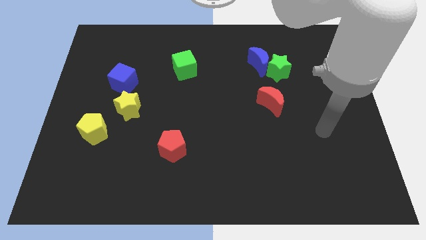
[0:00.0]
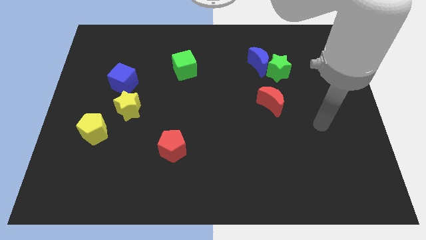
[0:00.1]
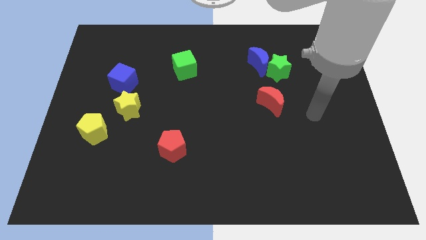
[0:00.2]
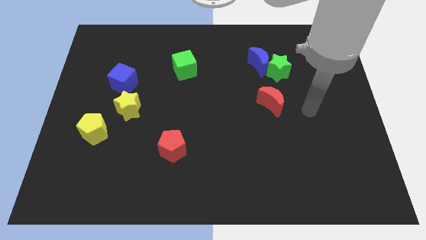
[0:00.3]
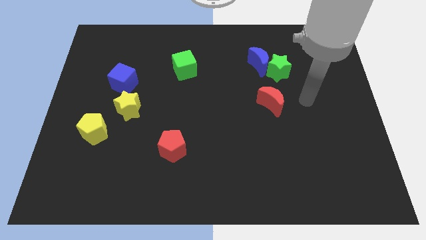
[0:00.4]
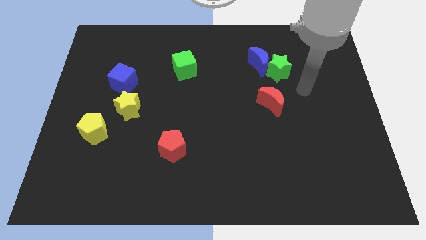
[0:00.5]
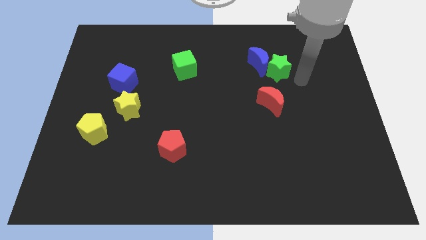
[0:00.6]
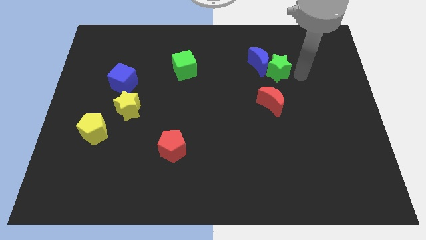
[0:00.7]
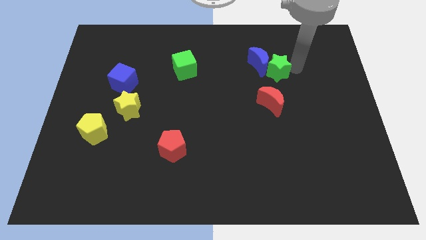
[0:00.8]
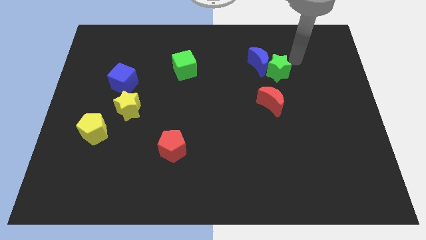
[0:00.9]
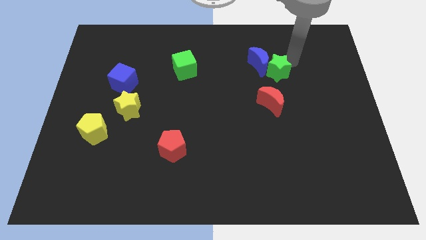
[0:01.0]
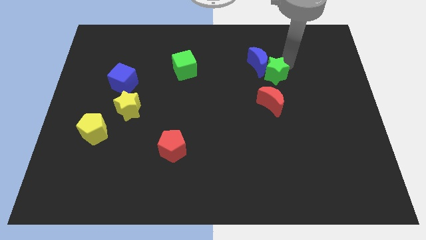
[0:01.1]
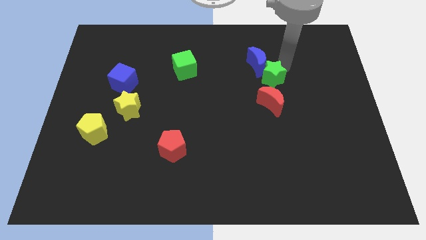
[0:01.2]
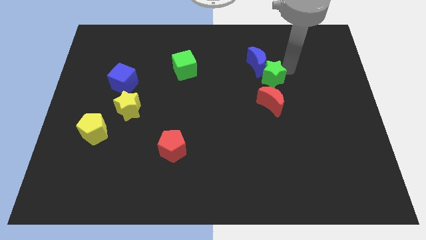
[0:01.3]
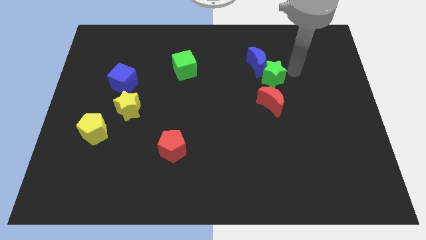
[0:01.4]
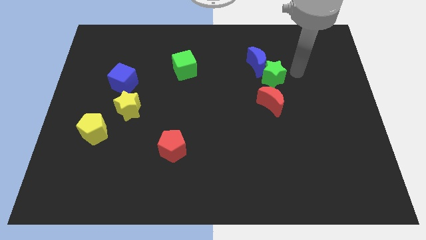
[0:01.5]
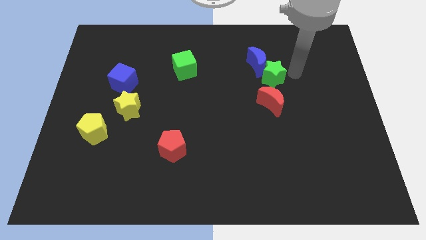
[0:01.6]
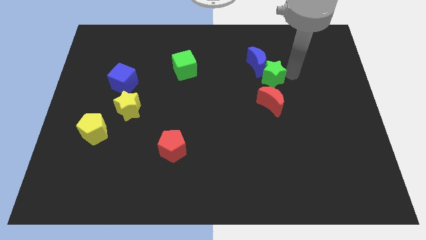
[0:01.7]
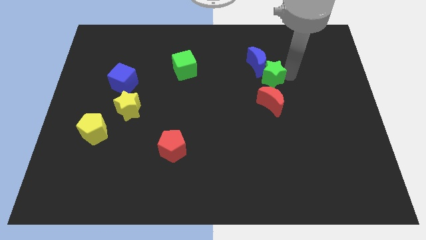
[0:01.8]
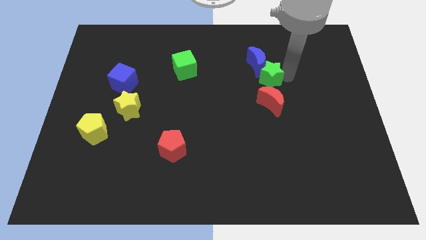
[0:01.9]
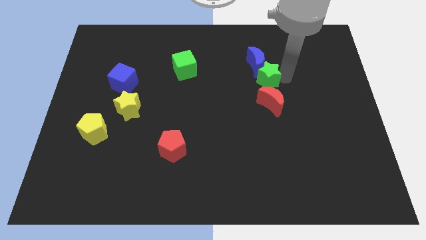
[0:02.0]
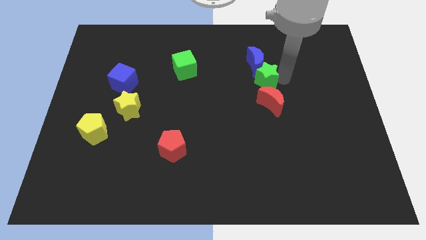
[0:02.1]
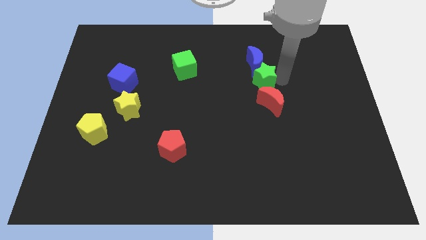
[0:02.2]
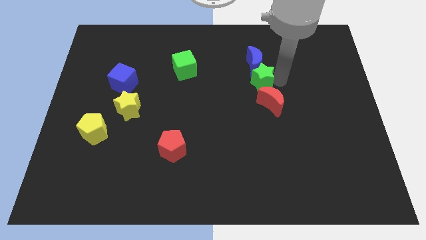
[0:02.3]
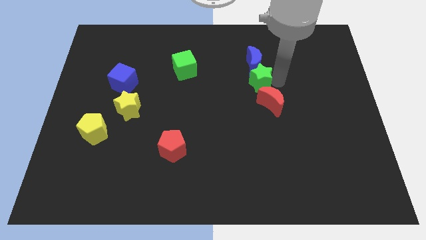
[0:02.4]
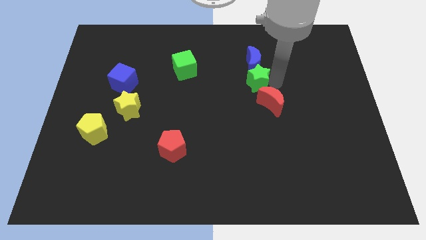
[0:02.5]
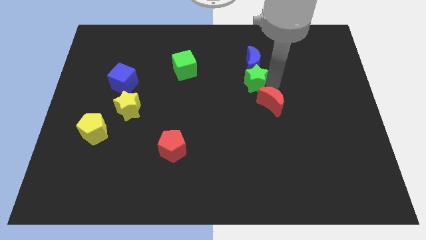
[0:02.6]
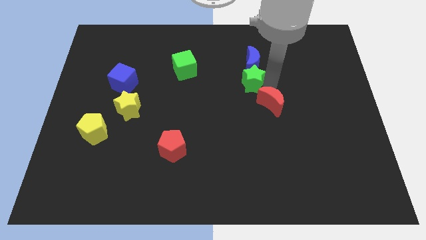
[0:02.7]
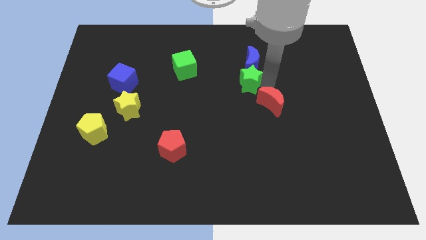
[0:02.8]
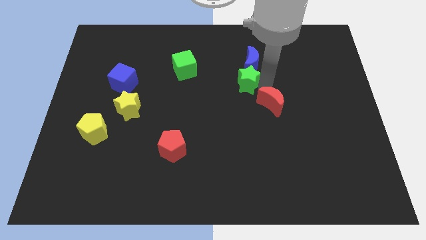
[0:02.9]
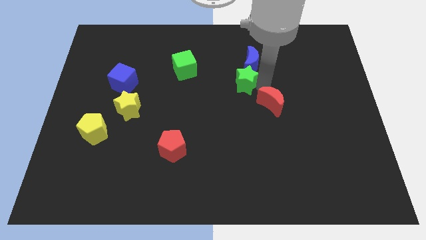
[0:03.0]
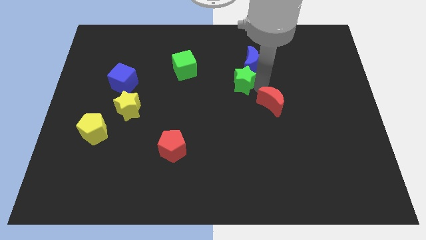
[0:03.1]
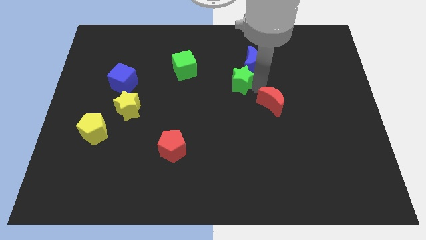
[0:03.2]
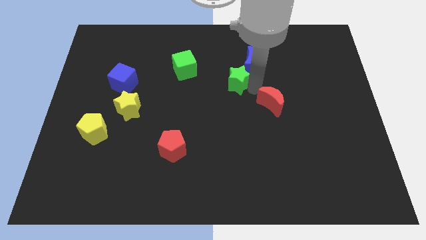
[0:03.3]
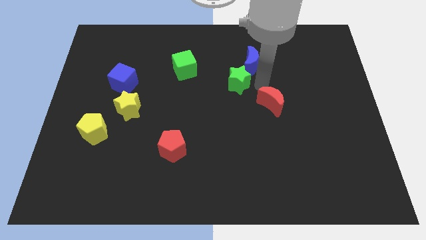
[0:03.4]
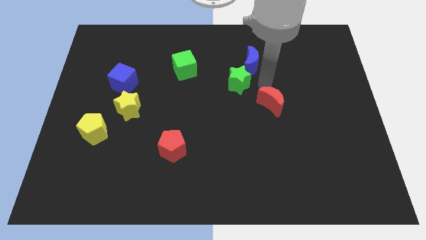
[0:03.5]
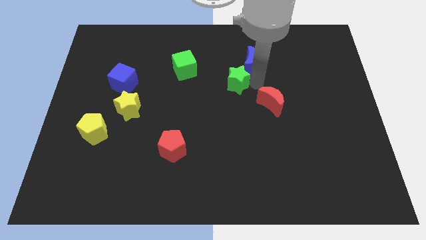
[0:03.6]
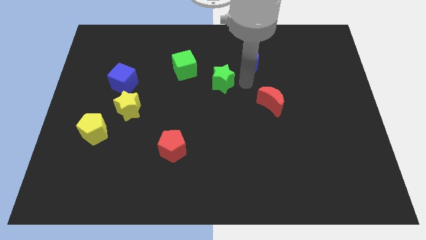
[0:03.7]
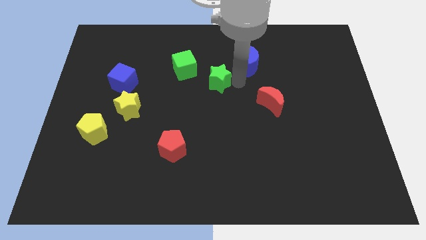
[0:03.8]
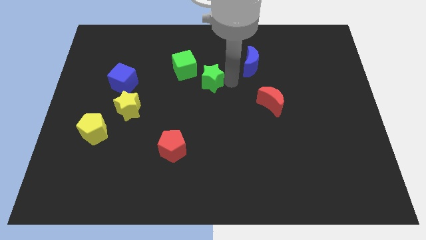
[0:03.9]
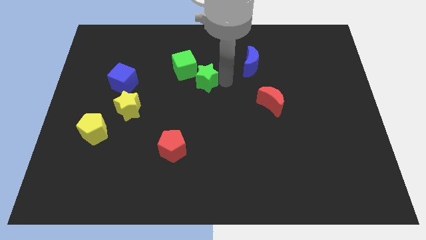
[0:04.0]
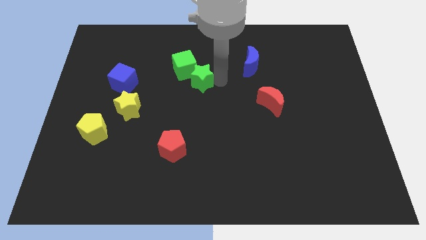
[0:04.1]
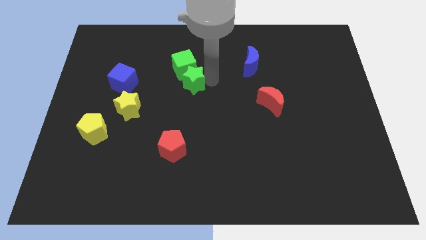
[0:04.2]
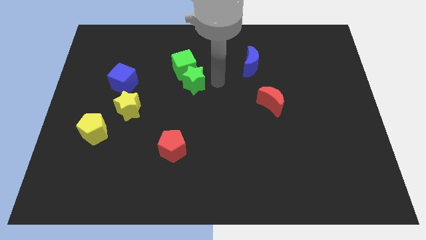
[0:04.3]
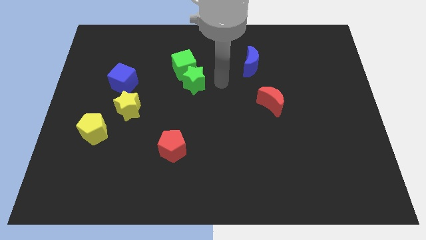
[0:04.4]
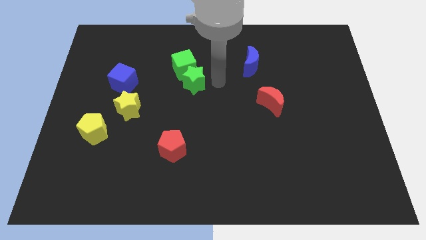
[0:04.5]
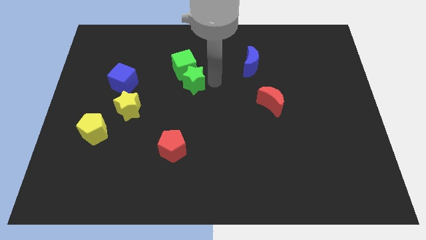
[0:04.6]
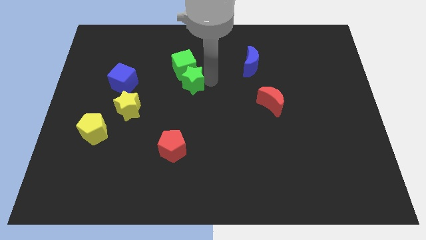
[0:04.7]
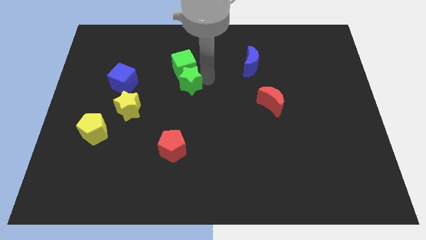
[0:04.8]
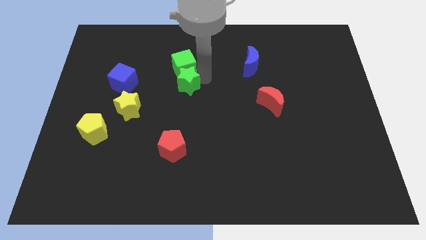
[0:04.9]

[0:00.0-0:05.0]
put the green star diagonally down and to the left of the green cube

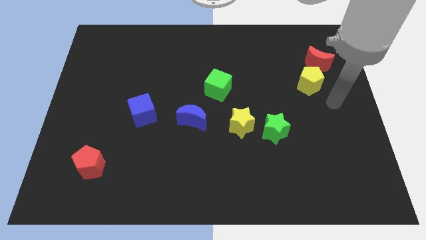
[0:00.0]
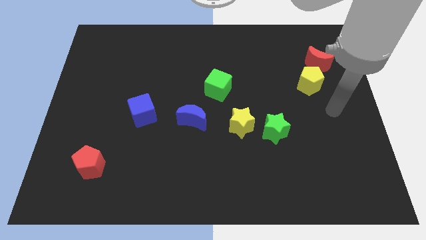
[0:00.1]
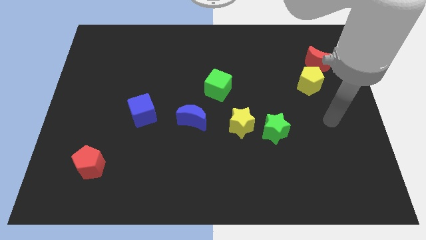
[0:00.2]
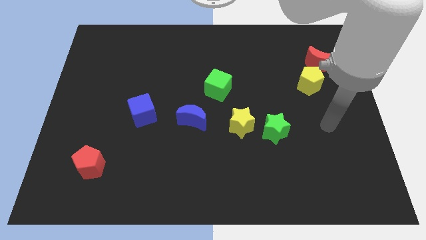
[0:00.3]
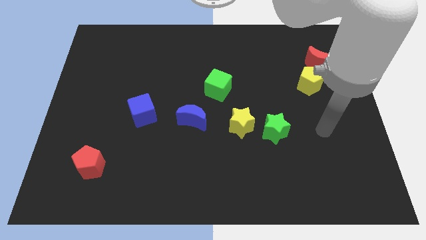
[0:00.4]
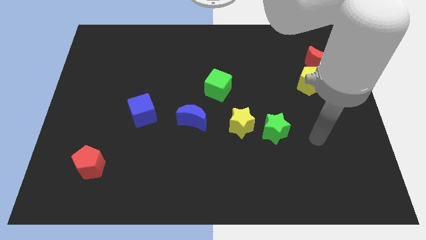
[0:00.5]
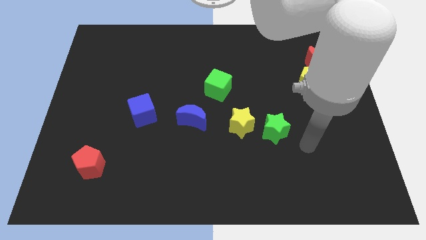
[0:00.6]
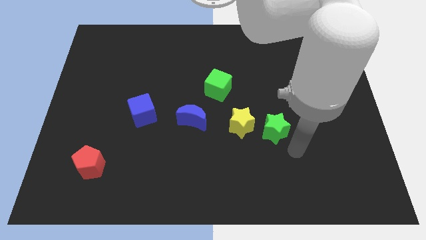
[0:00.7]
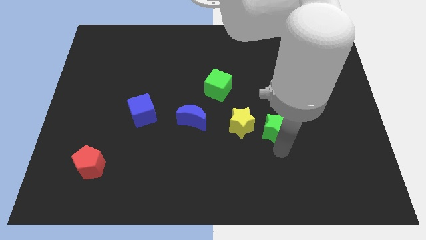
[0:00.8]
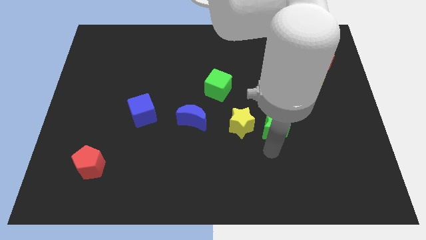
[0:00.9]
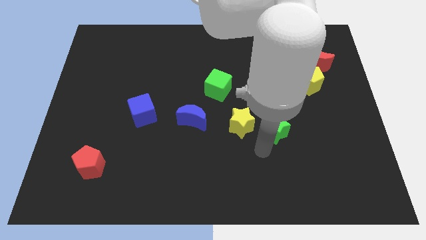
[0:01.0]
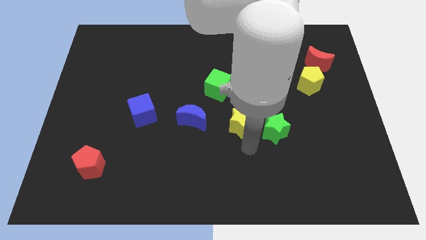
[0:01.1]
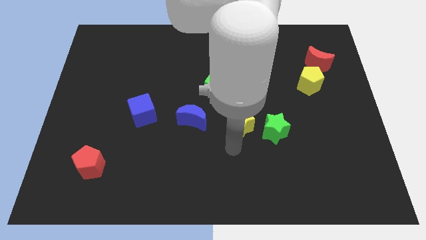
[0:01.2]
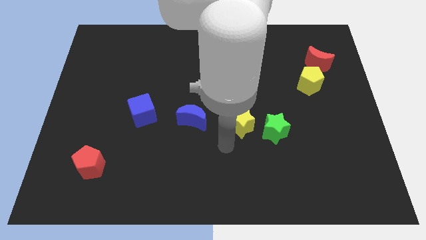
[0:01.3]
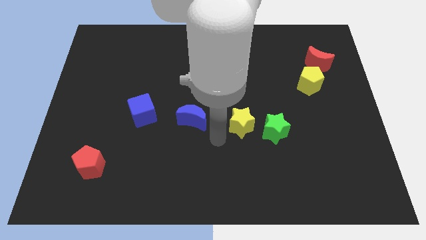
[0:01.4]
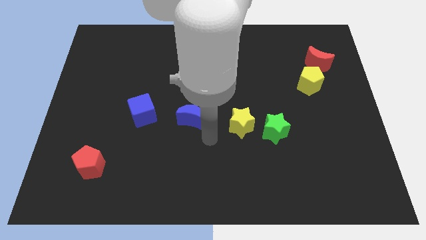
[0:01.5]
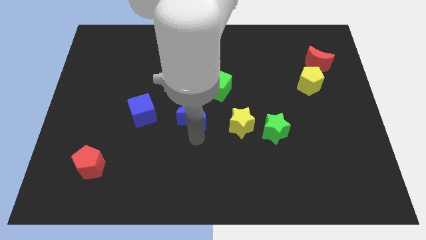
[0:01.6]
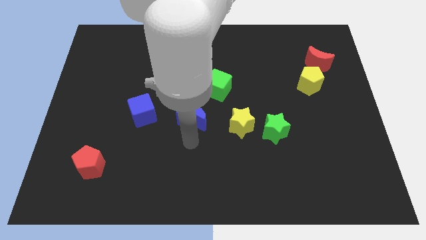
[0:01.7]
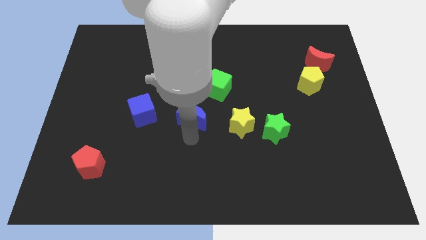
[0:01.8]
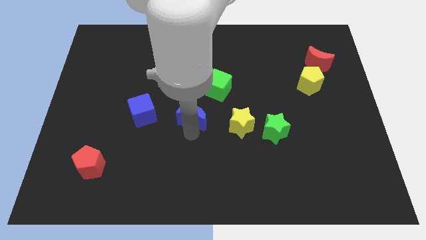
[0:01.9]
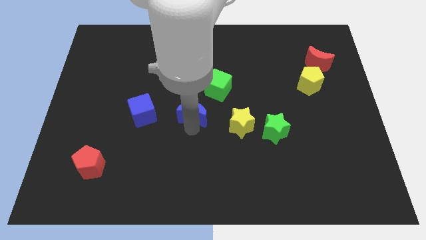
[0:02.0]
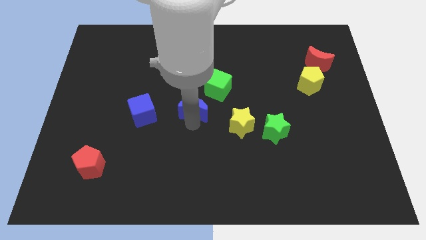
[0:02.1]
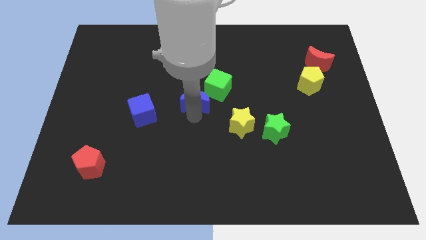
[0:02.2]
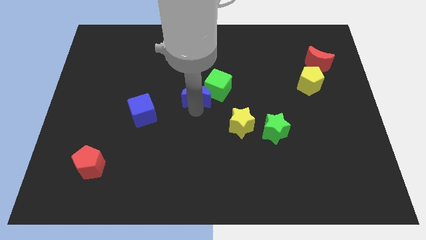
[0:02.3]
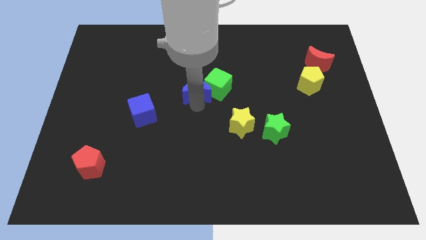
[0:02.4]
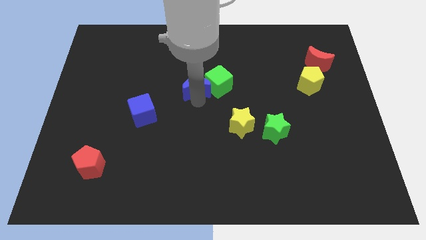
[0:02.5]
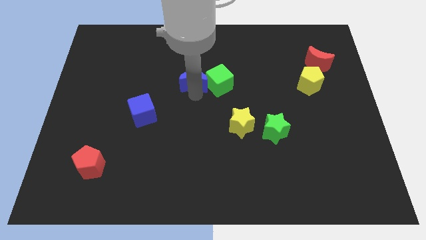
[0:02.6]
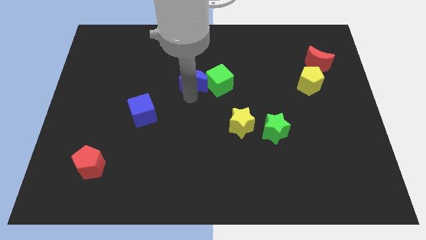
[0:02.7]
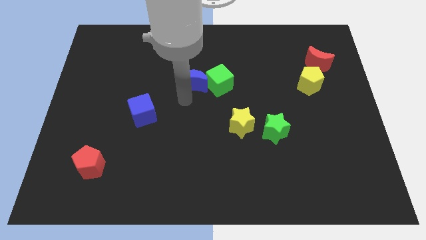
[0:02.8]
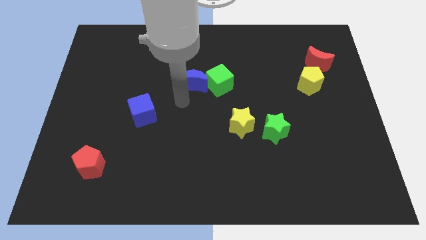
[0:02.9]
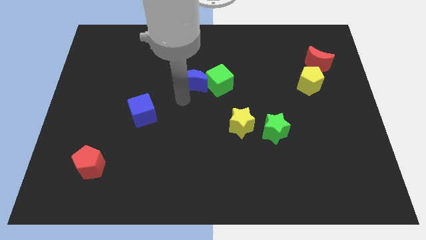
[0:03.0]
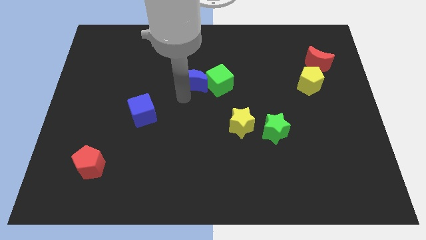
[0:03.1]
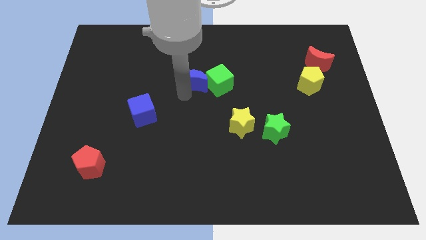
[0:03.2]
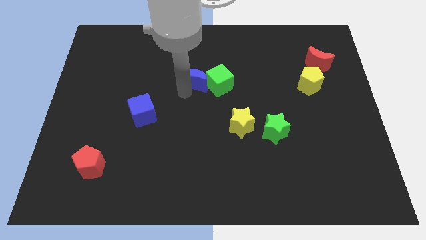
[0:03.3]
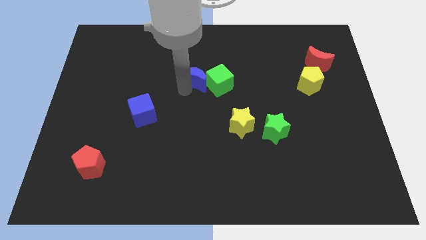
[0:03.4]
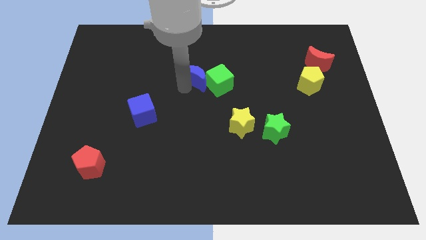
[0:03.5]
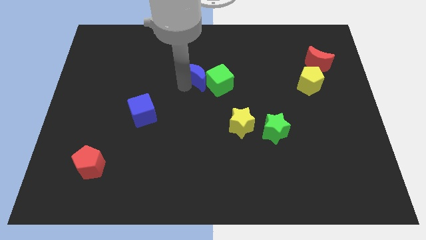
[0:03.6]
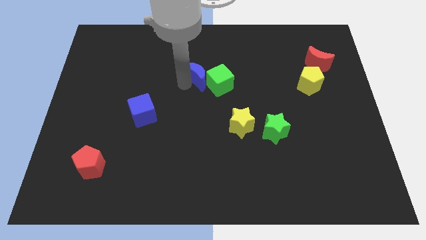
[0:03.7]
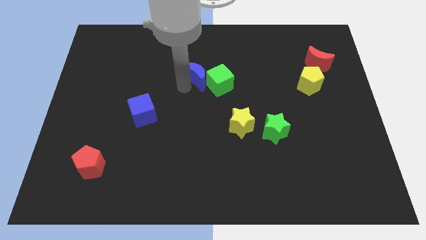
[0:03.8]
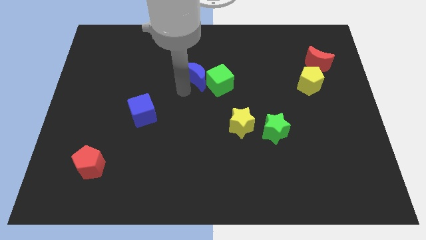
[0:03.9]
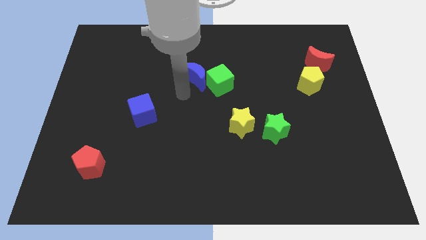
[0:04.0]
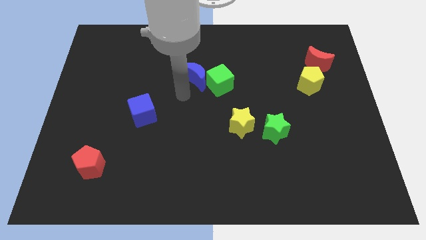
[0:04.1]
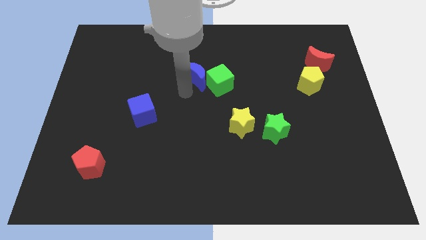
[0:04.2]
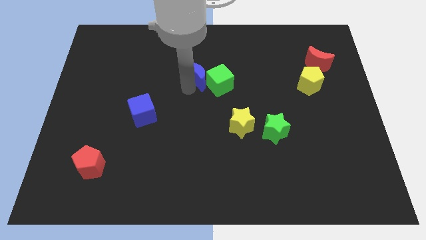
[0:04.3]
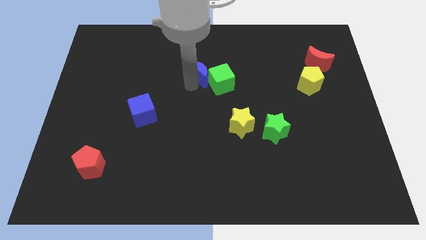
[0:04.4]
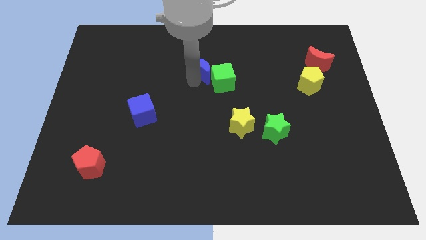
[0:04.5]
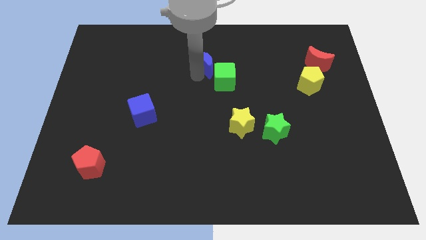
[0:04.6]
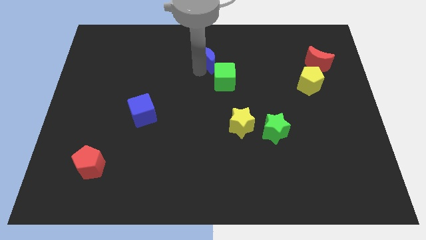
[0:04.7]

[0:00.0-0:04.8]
move the blue moon above the green cube
